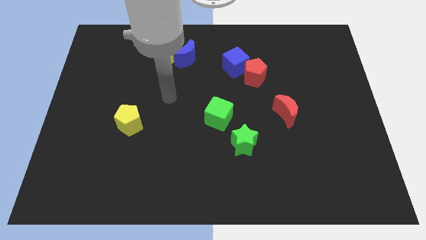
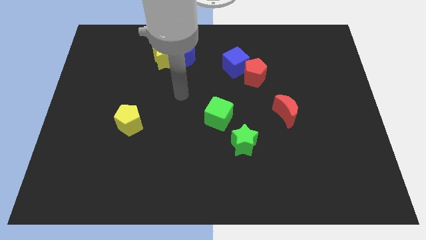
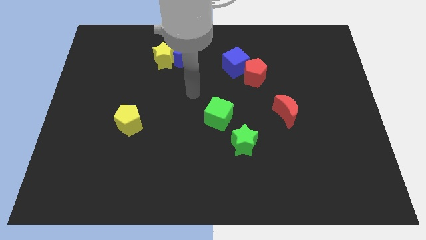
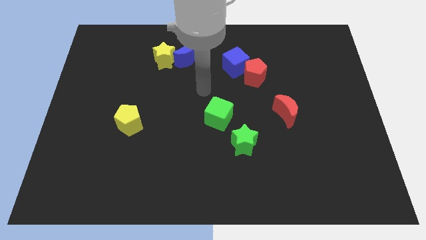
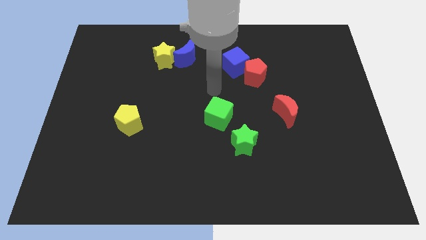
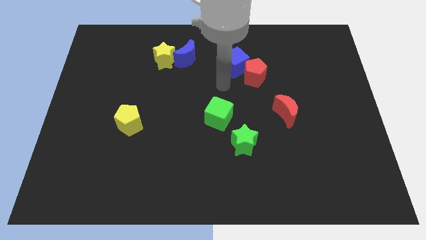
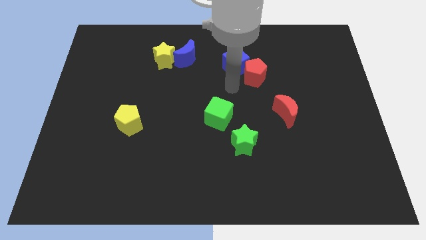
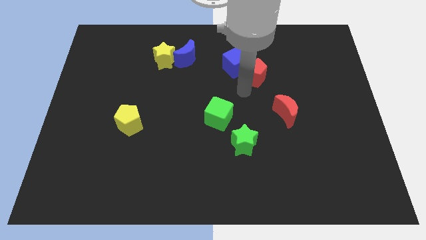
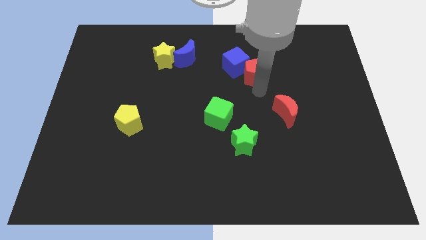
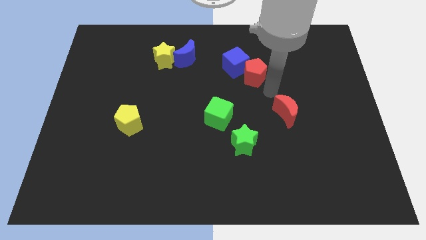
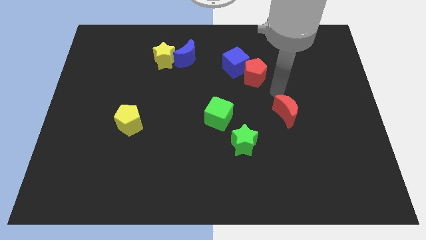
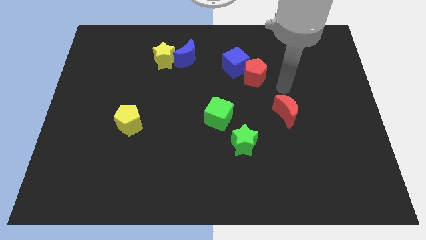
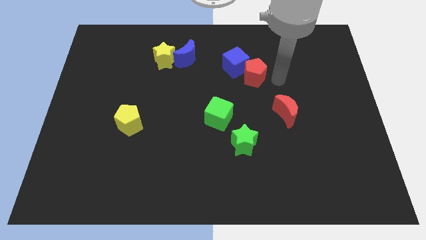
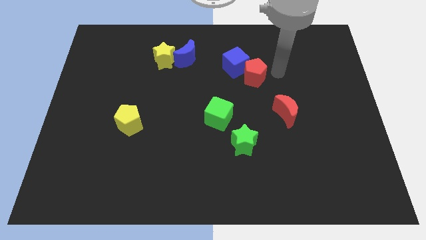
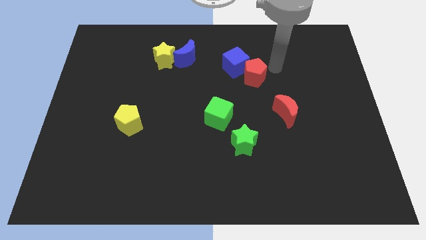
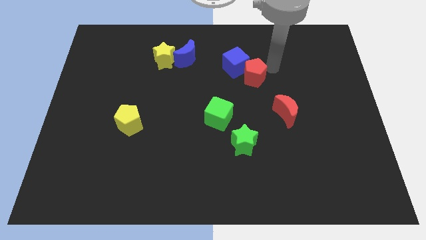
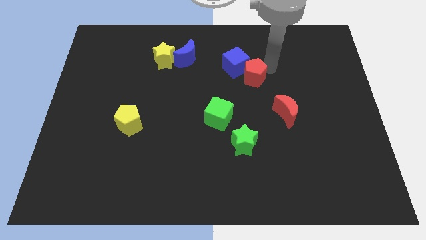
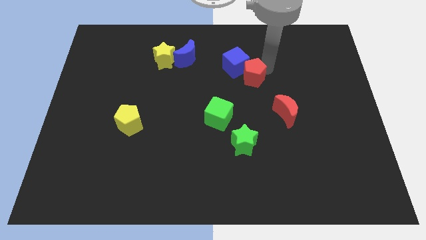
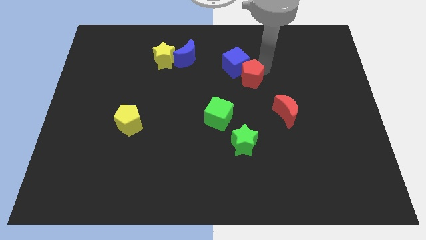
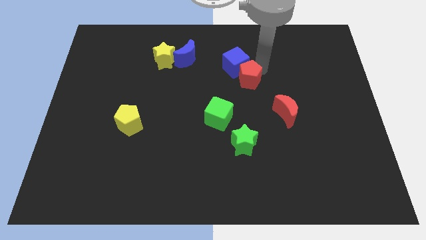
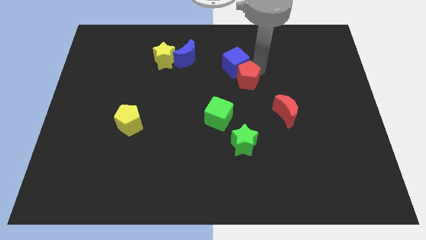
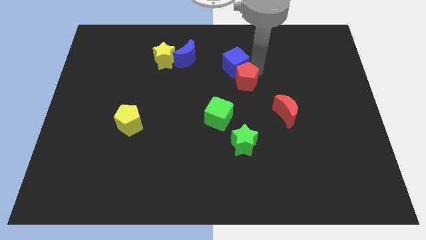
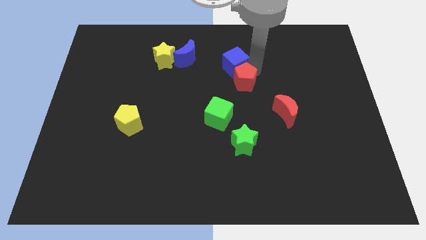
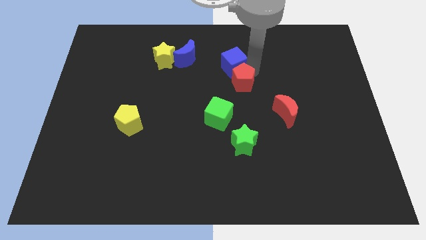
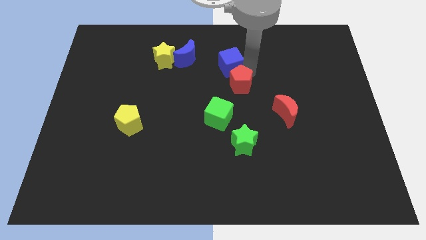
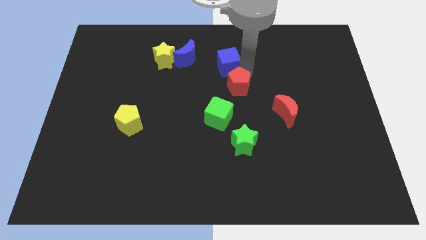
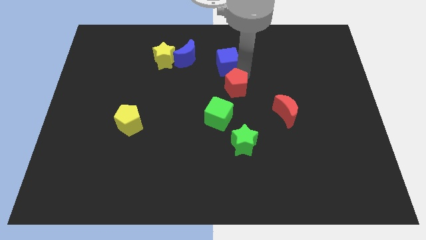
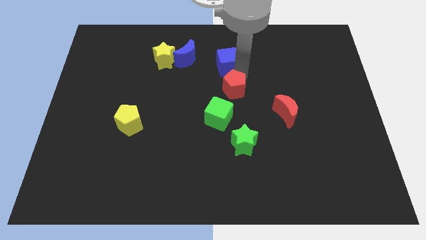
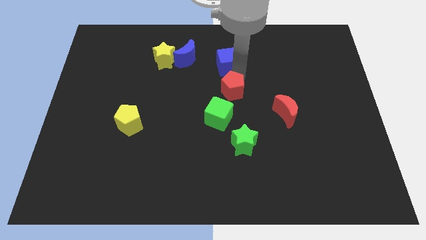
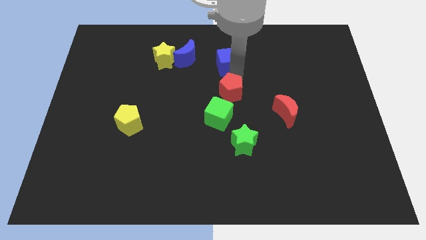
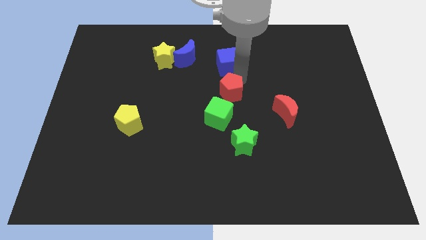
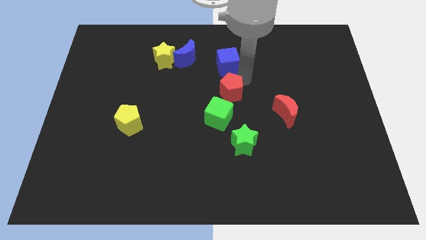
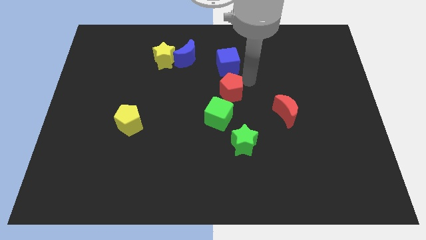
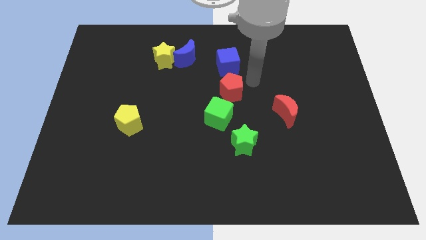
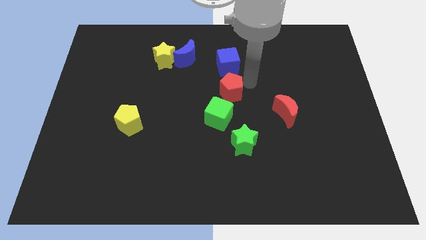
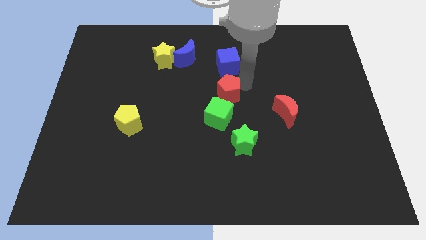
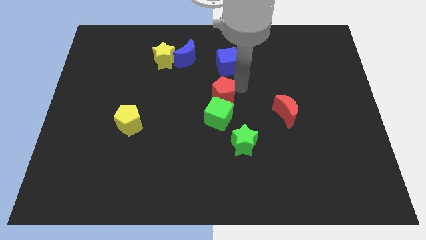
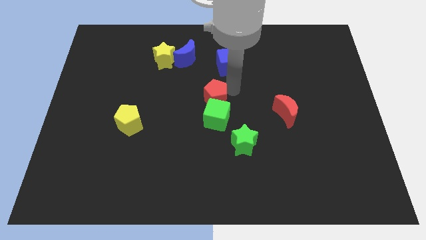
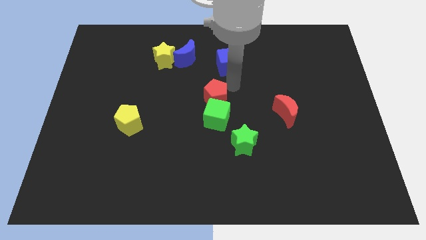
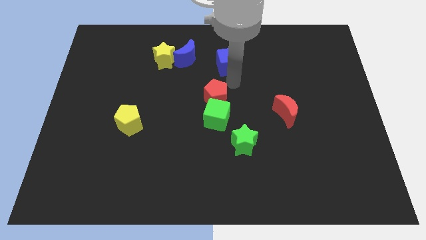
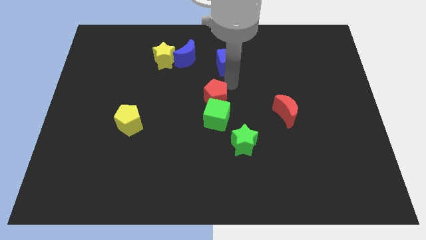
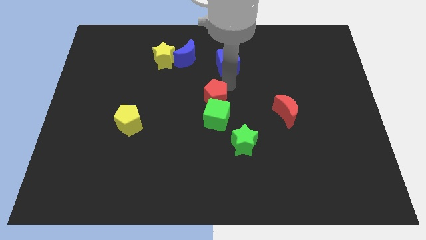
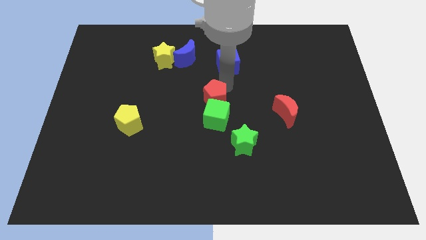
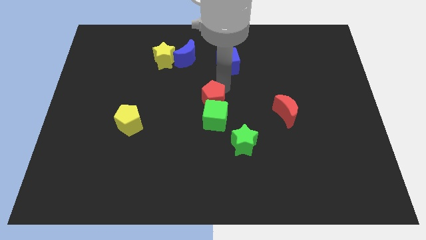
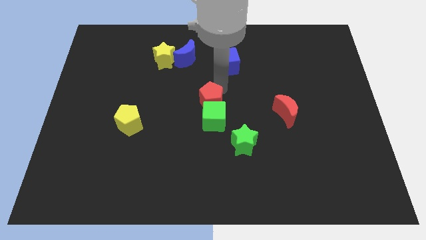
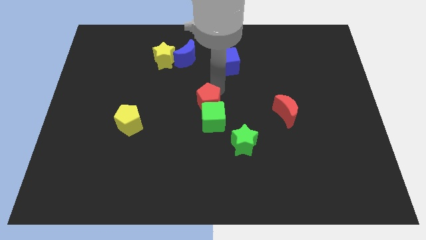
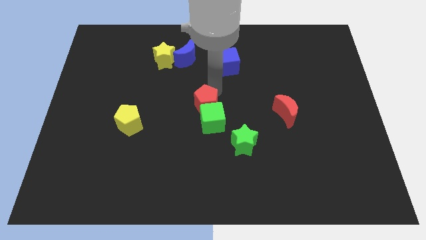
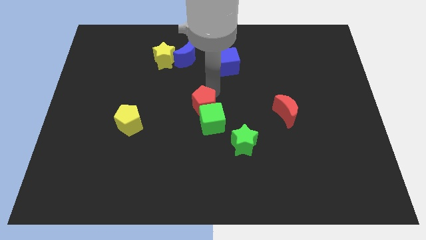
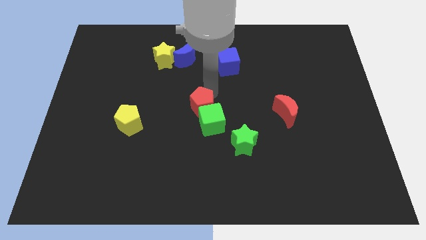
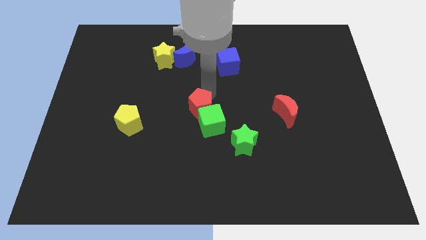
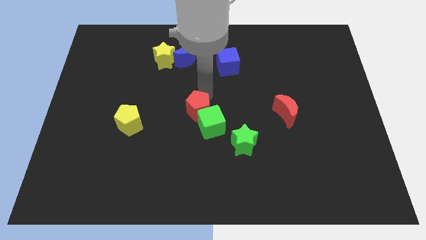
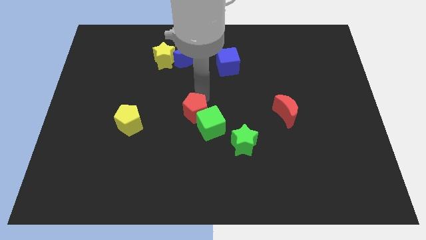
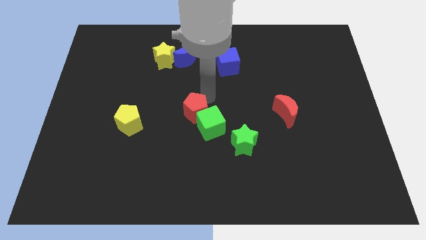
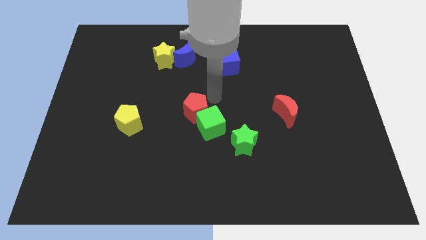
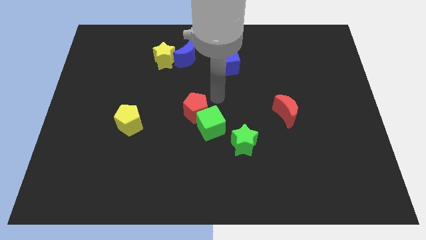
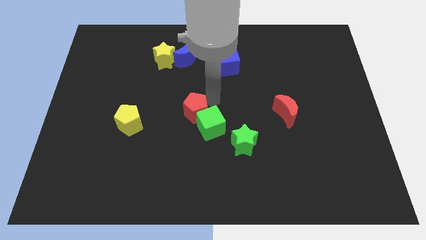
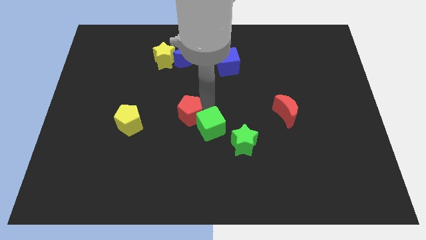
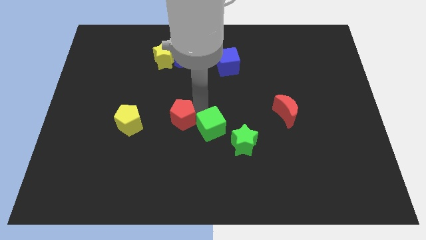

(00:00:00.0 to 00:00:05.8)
push the red pentagon down and to the left

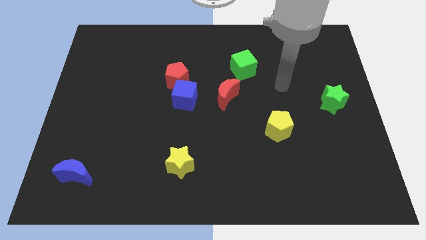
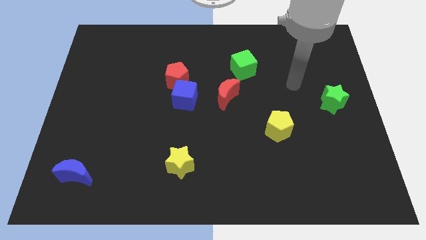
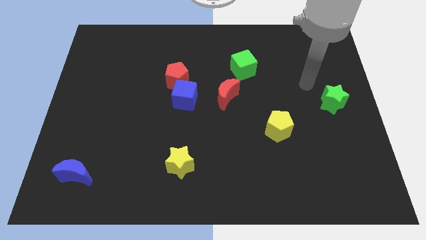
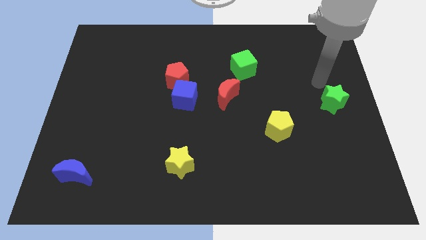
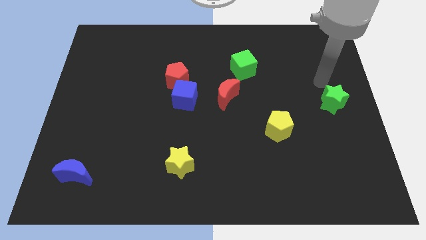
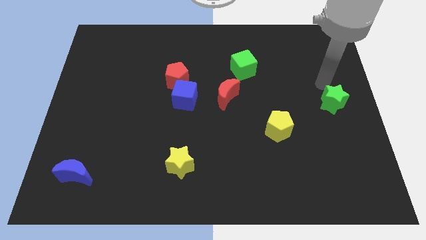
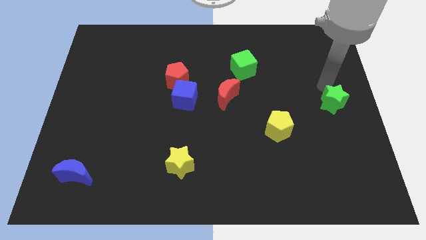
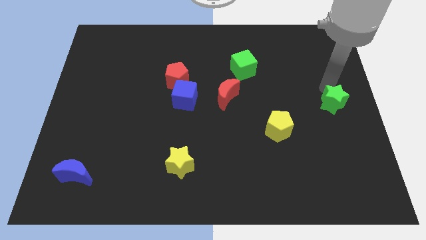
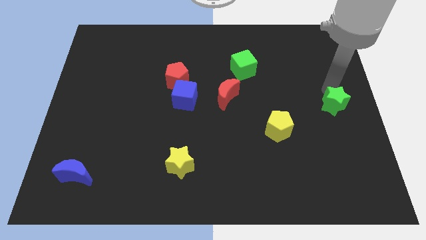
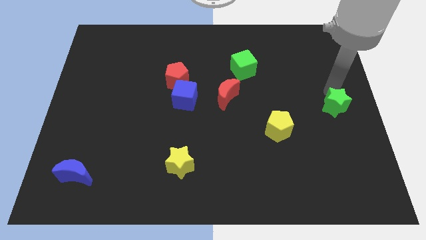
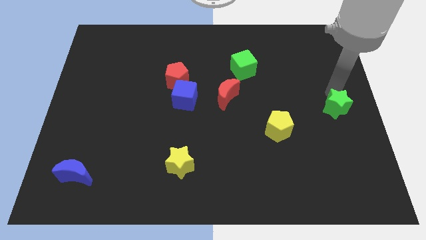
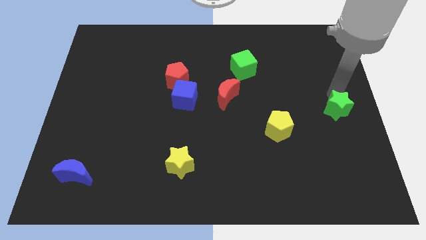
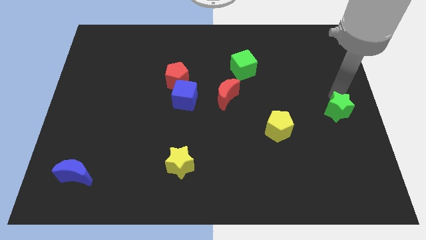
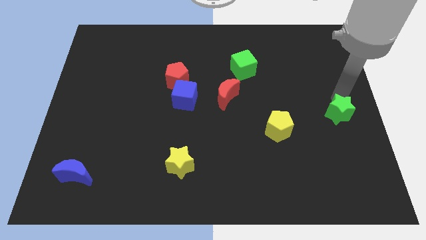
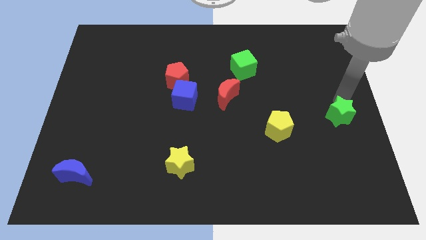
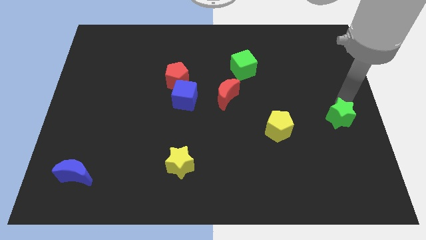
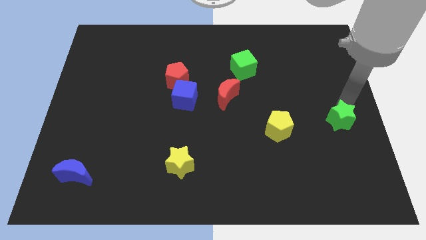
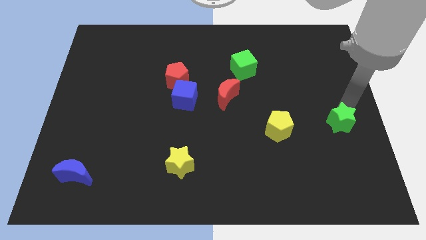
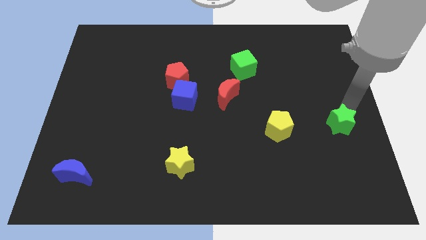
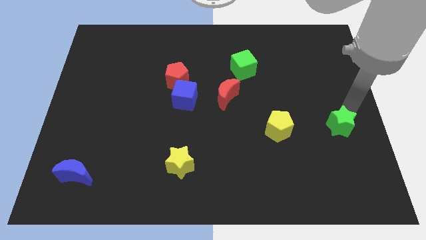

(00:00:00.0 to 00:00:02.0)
push the green star downwards a little bit

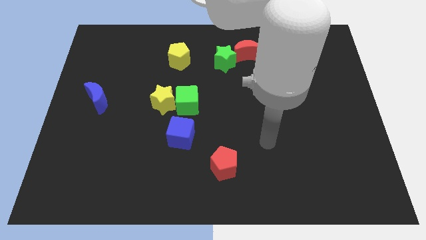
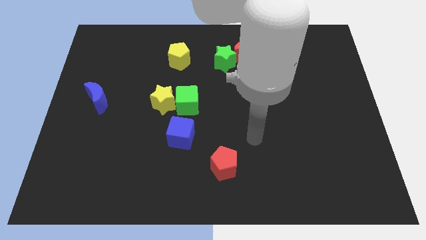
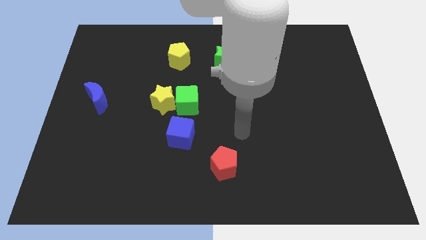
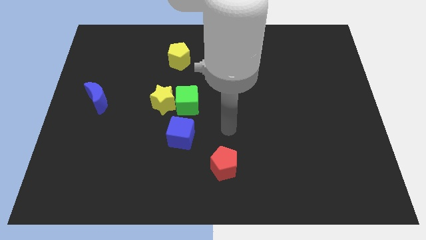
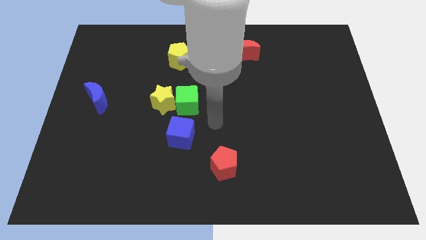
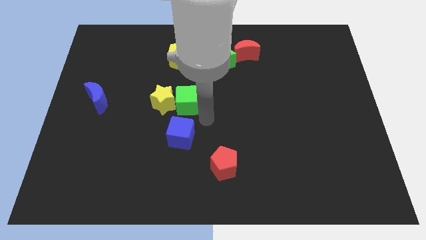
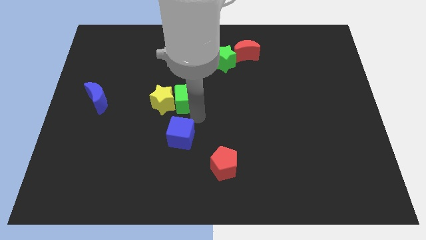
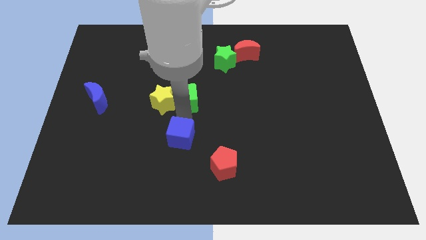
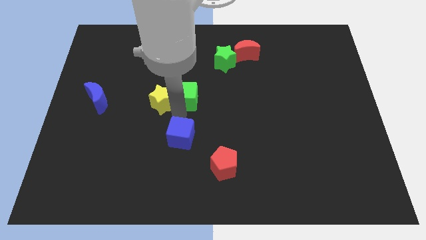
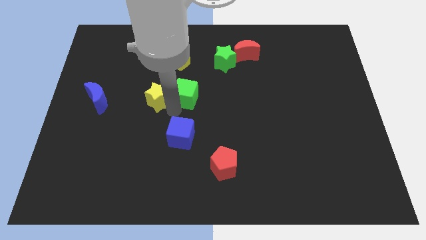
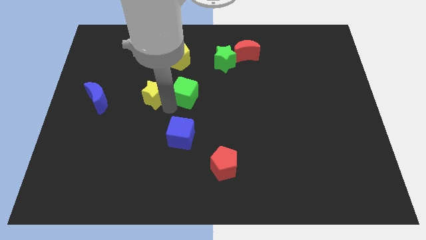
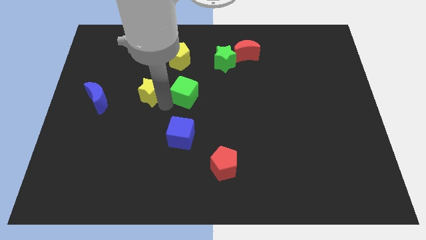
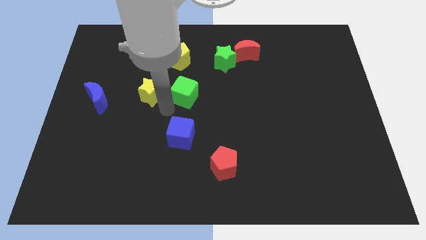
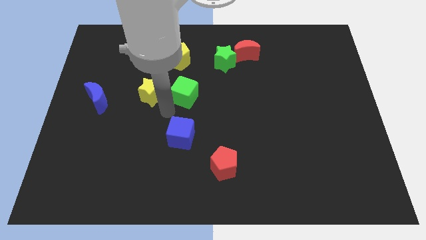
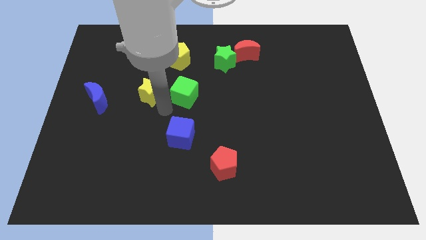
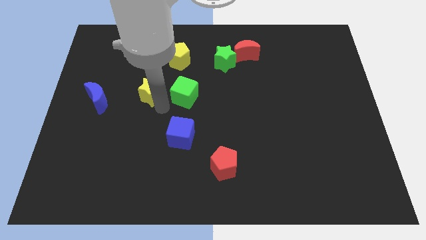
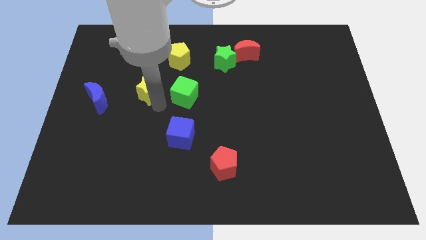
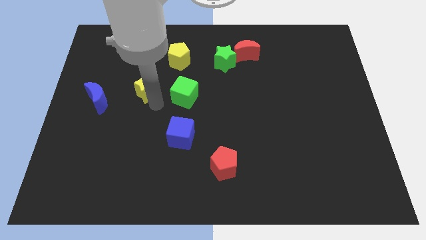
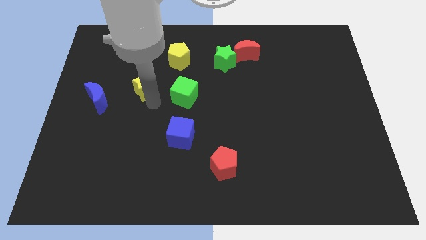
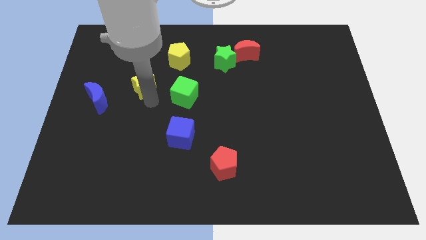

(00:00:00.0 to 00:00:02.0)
slightly move the yellow star upwards and left diagonally
